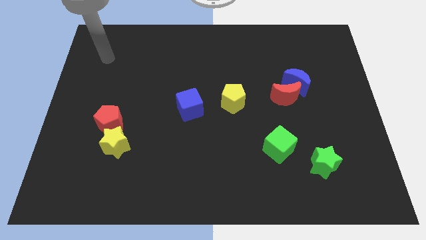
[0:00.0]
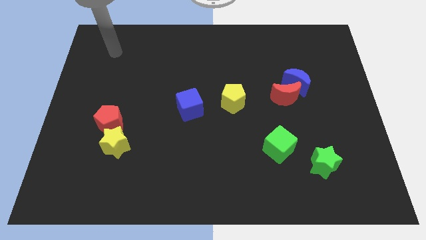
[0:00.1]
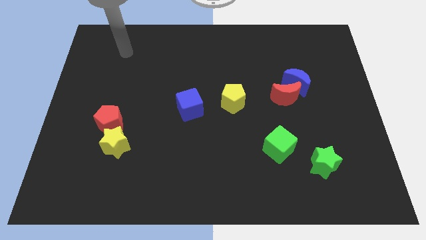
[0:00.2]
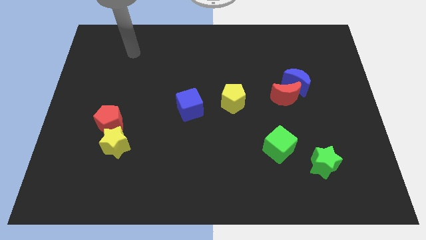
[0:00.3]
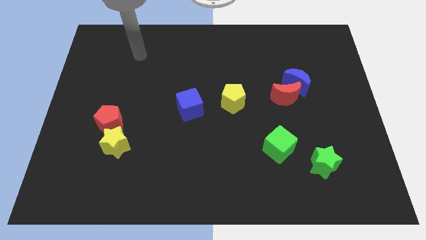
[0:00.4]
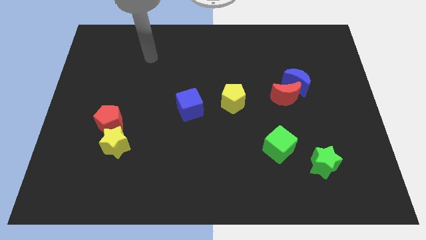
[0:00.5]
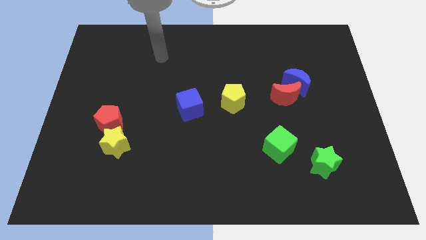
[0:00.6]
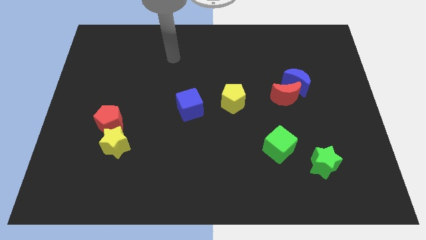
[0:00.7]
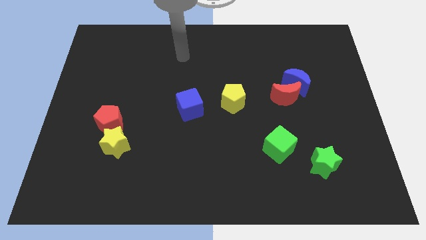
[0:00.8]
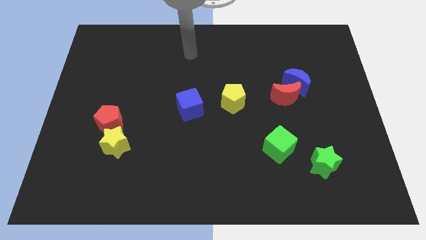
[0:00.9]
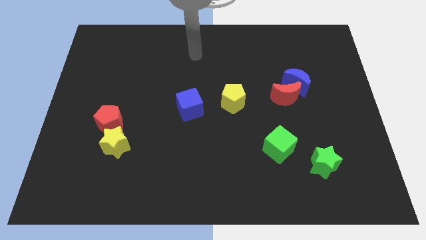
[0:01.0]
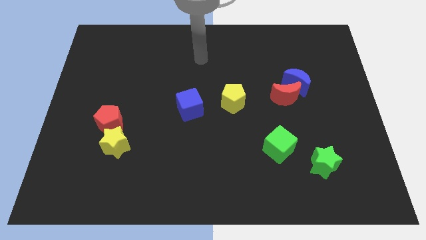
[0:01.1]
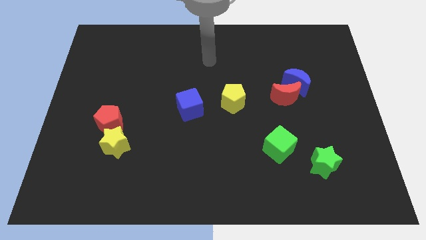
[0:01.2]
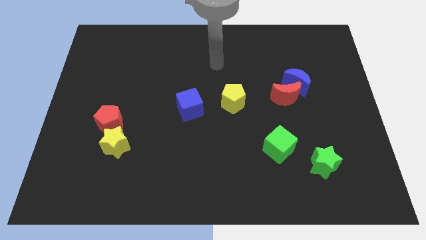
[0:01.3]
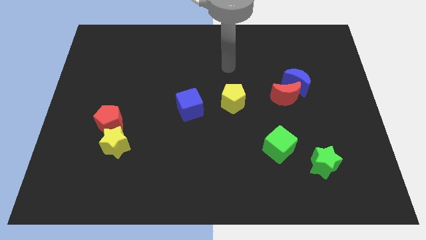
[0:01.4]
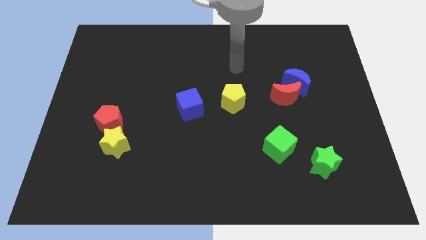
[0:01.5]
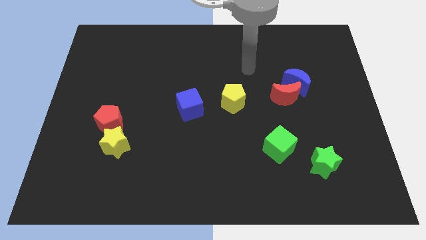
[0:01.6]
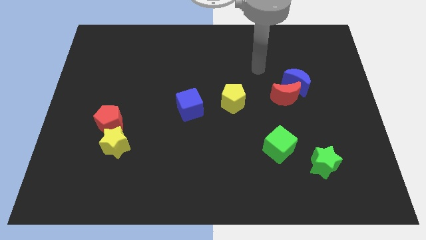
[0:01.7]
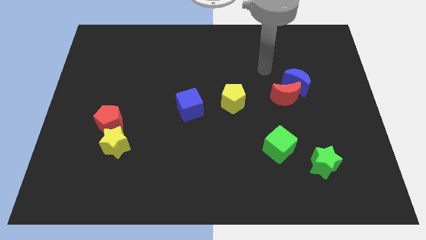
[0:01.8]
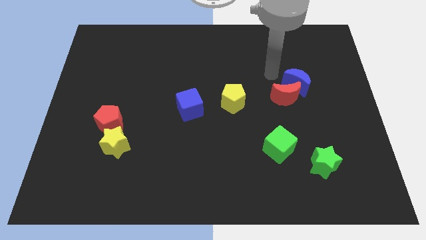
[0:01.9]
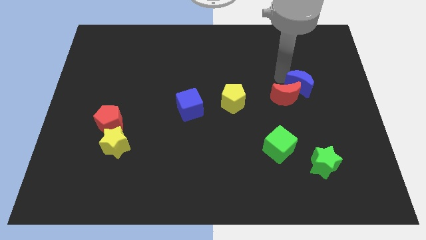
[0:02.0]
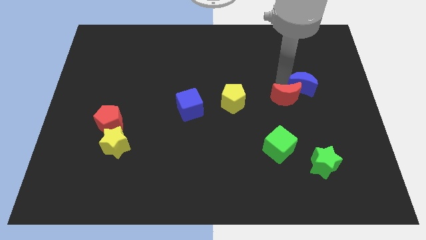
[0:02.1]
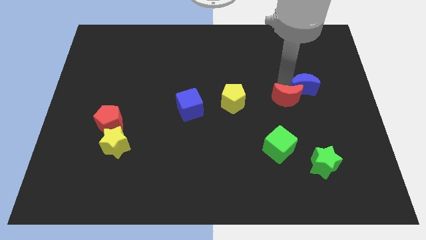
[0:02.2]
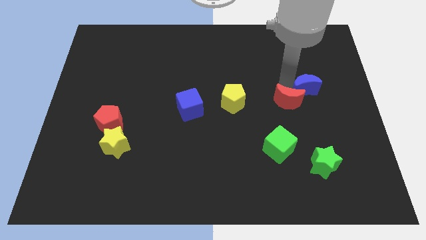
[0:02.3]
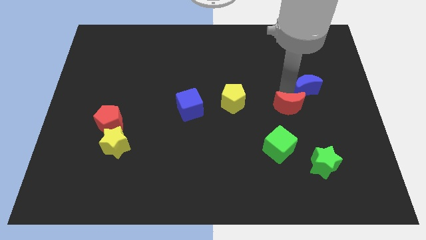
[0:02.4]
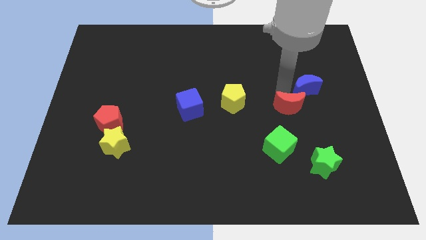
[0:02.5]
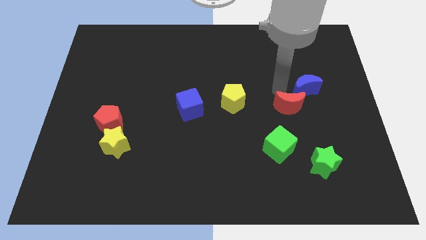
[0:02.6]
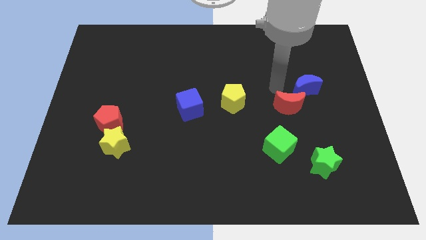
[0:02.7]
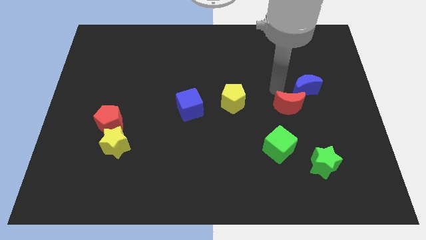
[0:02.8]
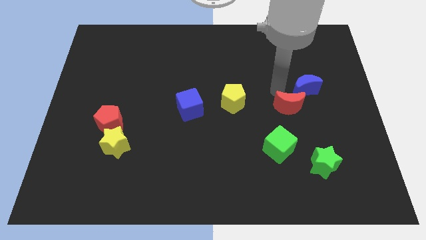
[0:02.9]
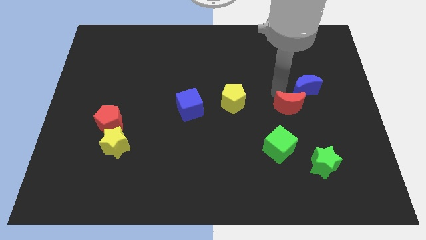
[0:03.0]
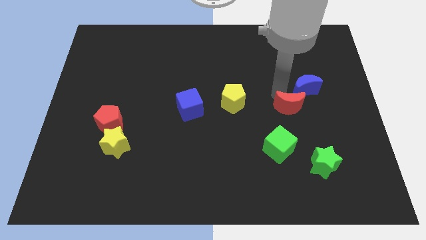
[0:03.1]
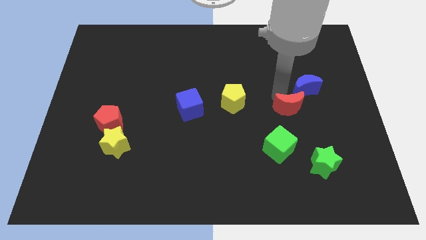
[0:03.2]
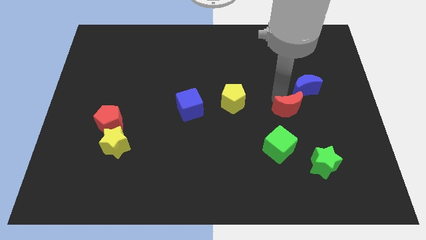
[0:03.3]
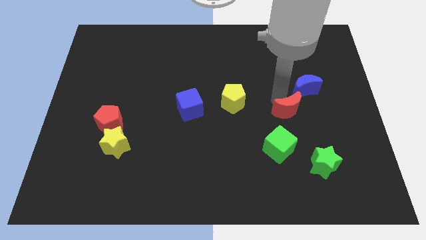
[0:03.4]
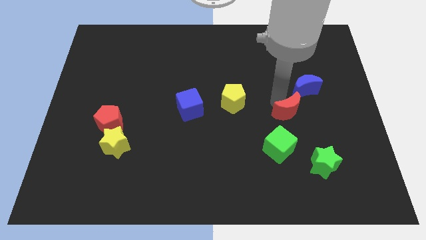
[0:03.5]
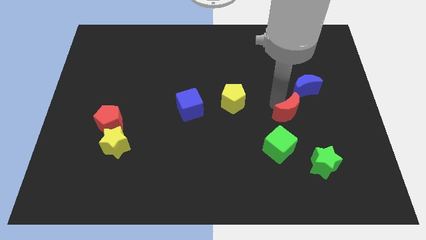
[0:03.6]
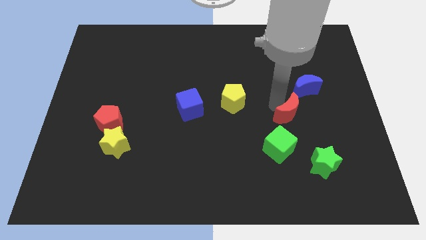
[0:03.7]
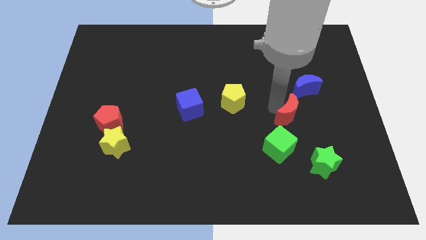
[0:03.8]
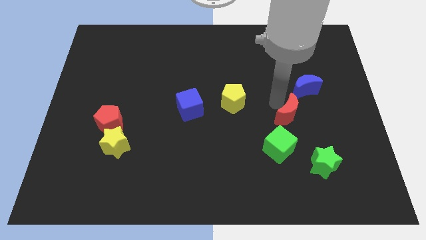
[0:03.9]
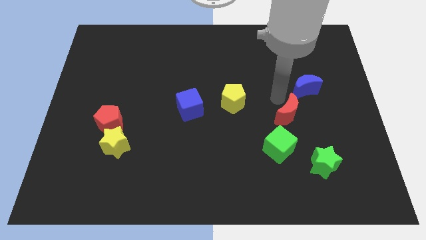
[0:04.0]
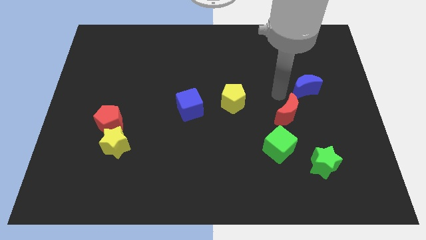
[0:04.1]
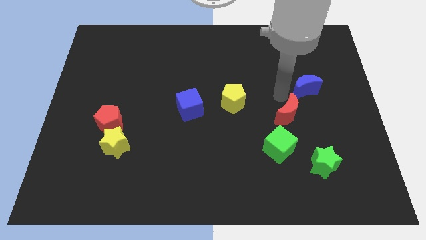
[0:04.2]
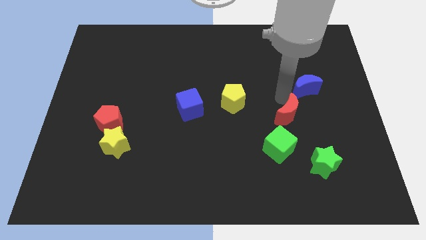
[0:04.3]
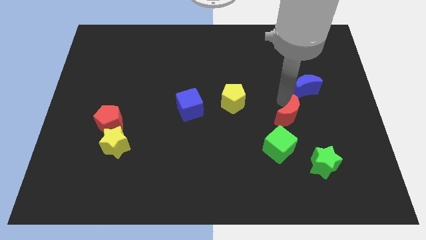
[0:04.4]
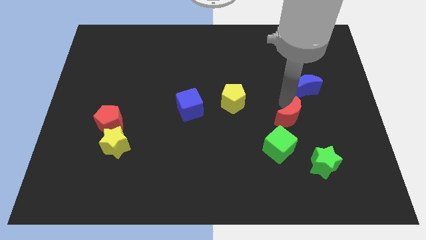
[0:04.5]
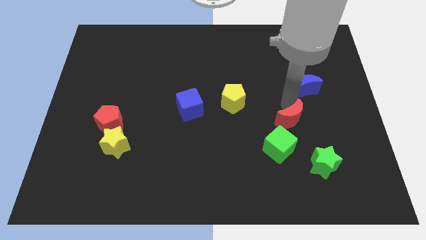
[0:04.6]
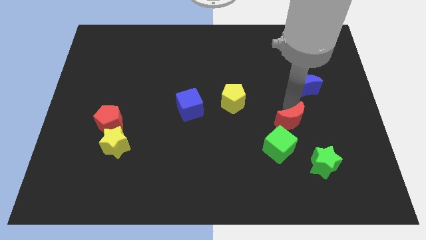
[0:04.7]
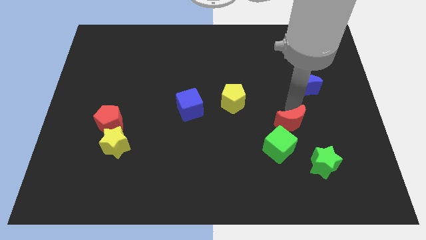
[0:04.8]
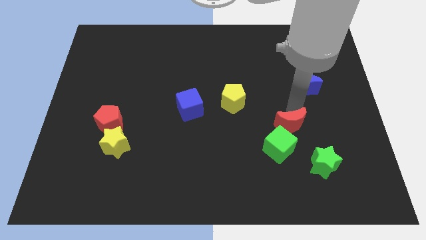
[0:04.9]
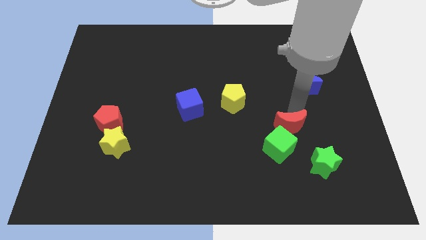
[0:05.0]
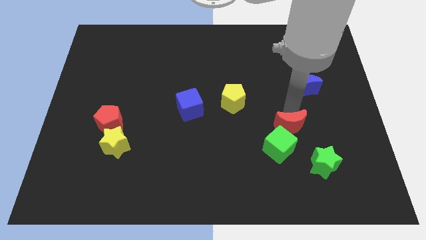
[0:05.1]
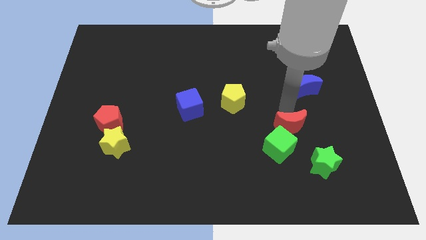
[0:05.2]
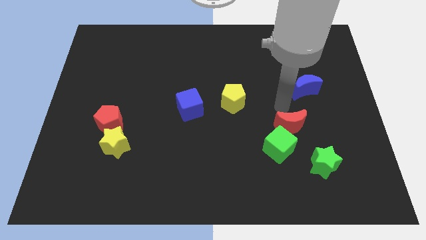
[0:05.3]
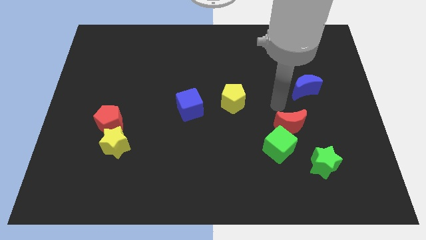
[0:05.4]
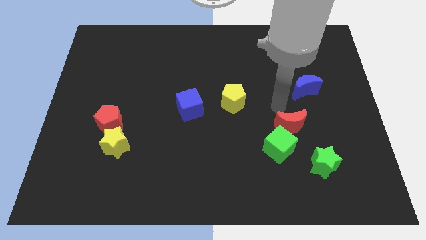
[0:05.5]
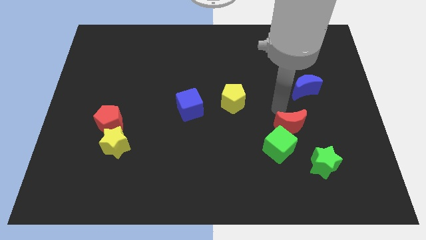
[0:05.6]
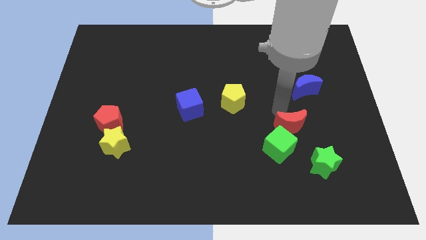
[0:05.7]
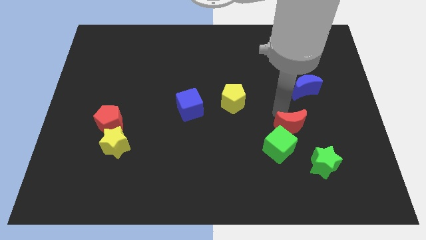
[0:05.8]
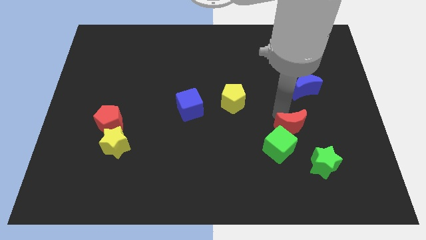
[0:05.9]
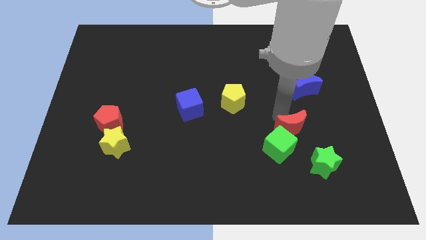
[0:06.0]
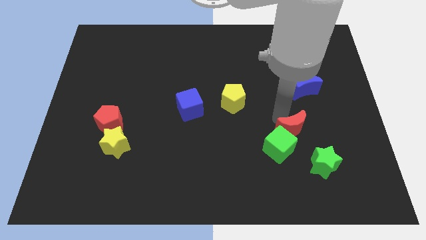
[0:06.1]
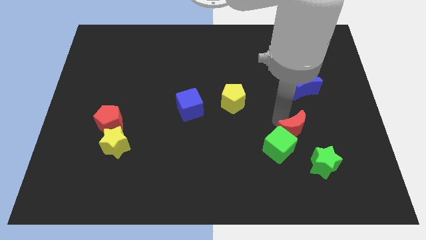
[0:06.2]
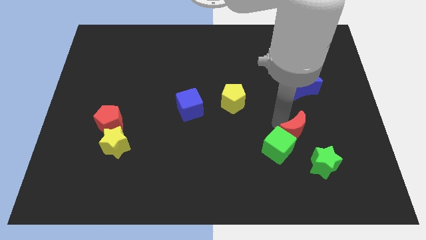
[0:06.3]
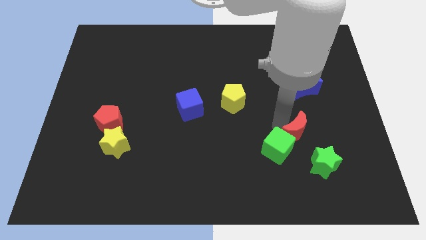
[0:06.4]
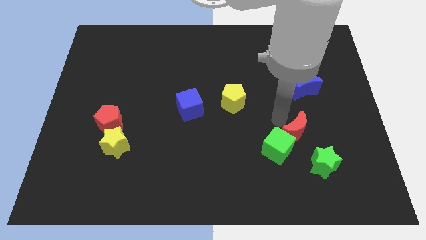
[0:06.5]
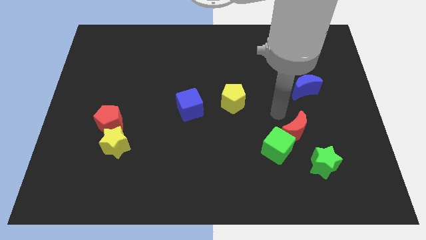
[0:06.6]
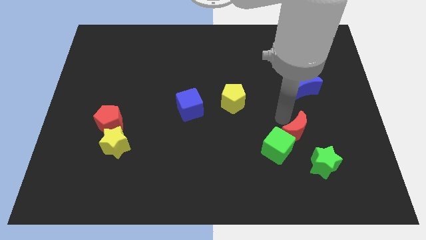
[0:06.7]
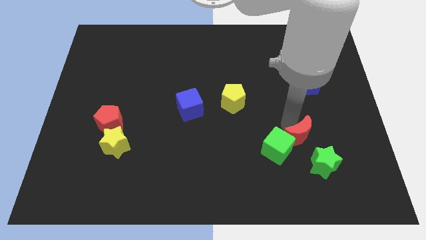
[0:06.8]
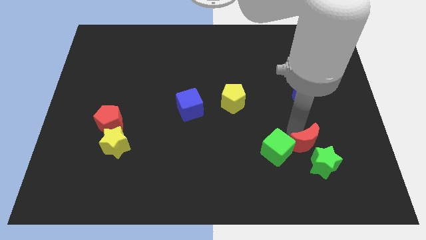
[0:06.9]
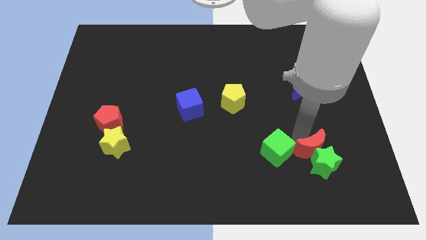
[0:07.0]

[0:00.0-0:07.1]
slide the red moon close to the green star
